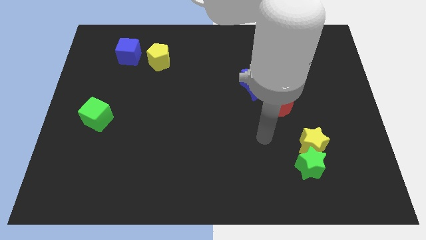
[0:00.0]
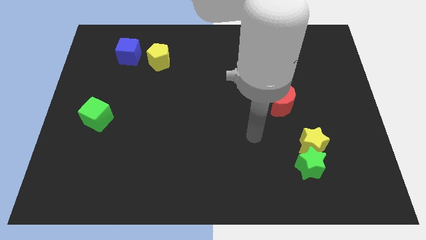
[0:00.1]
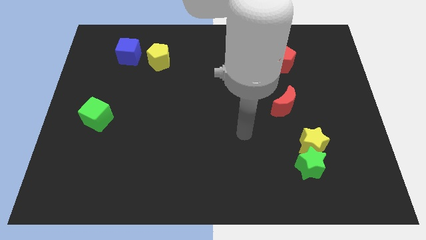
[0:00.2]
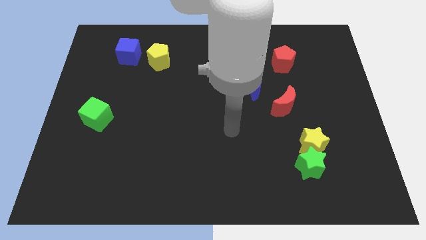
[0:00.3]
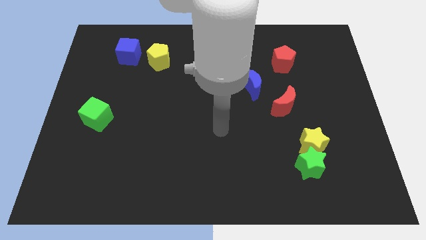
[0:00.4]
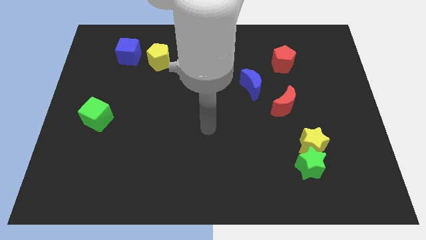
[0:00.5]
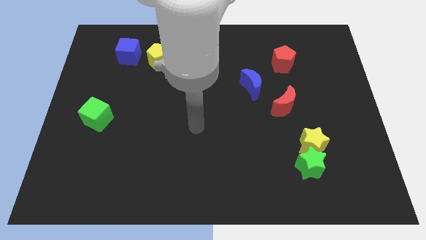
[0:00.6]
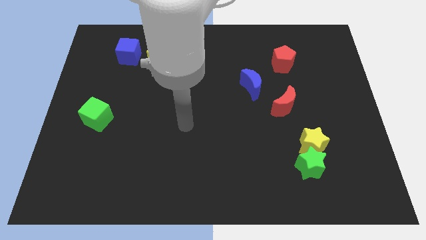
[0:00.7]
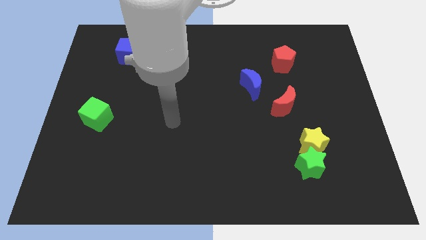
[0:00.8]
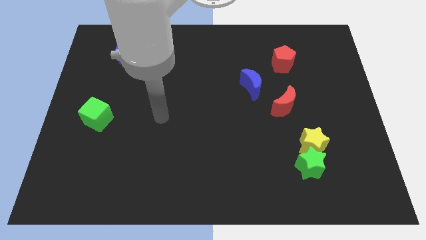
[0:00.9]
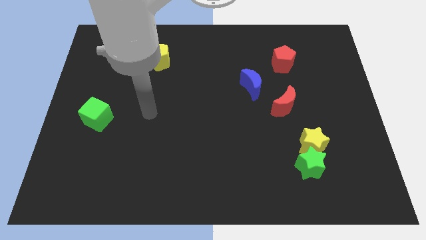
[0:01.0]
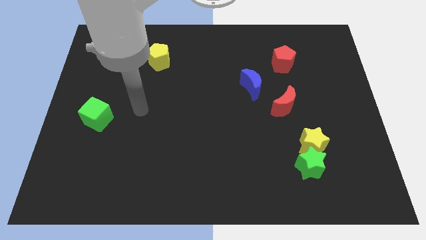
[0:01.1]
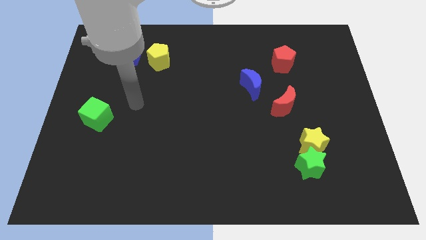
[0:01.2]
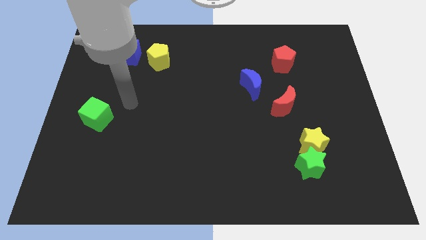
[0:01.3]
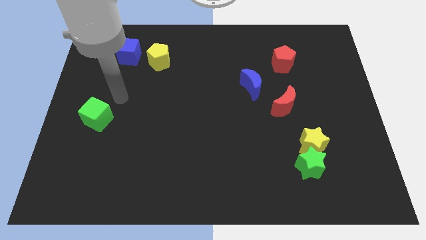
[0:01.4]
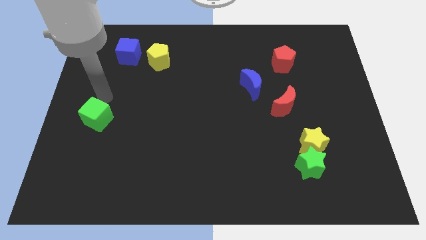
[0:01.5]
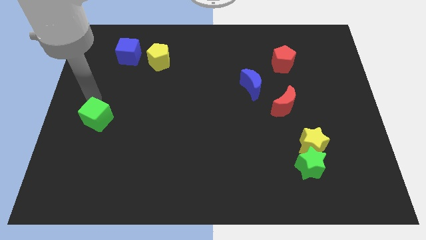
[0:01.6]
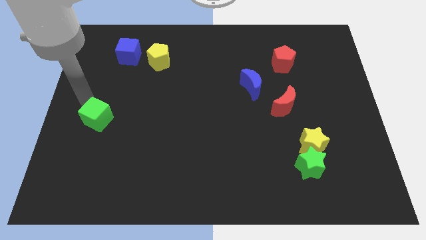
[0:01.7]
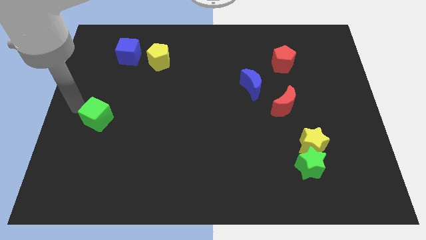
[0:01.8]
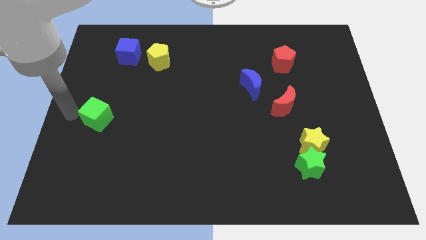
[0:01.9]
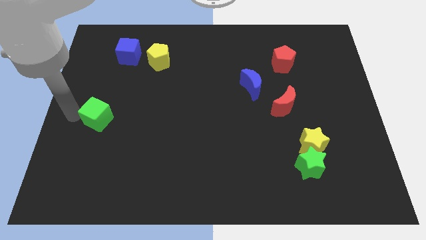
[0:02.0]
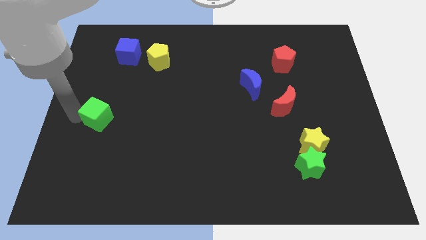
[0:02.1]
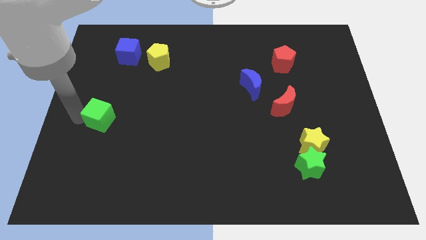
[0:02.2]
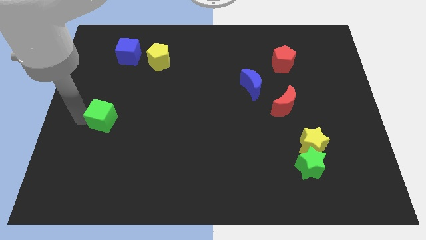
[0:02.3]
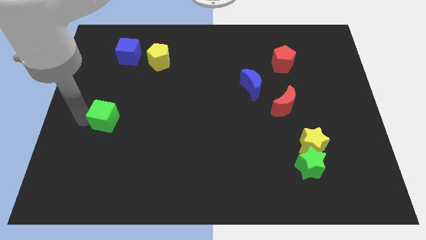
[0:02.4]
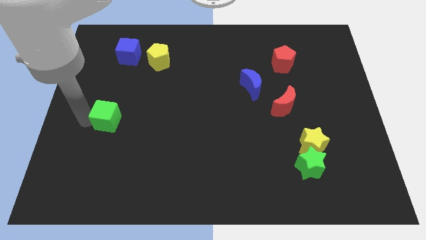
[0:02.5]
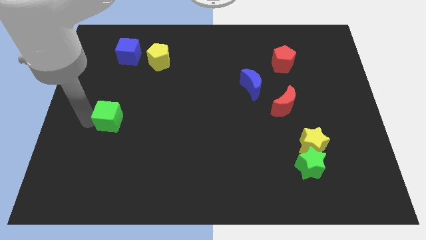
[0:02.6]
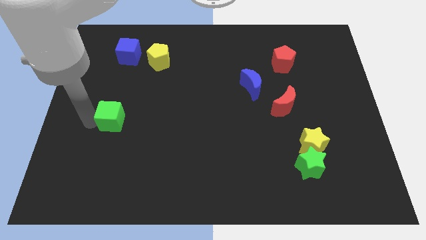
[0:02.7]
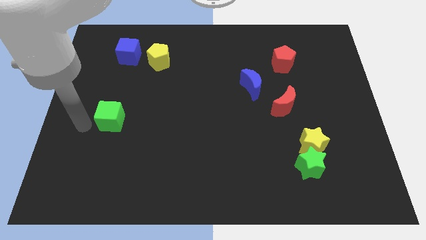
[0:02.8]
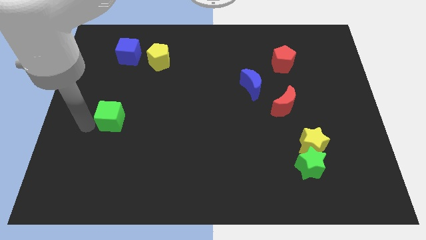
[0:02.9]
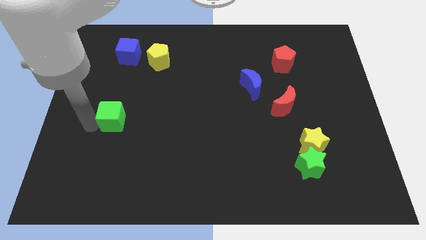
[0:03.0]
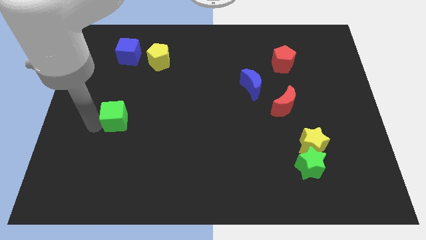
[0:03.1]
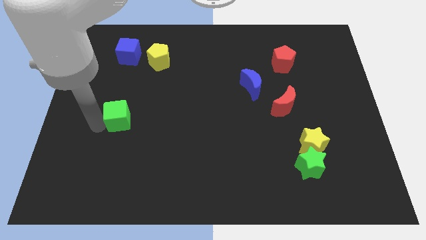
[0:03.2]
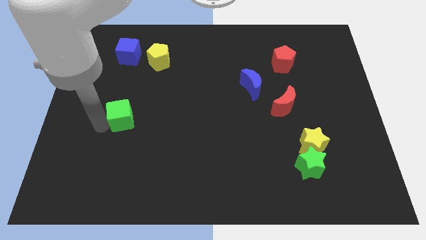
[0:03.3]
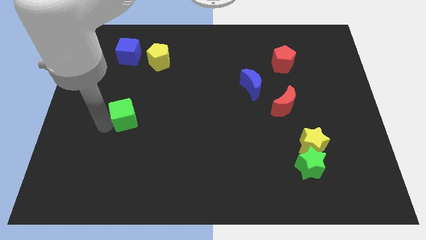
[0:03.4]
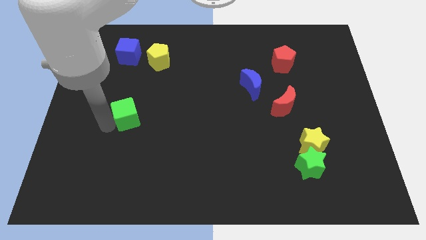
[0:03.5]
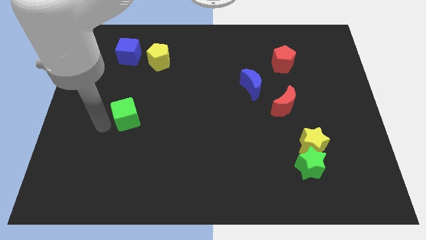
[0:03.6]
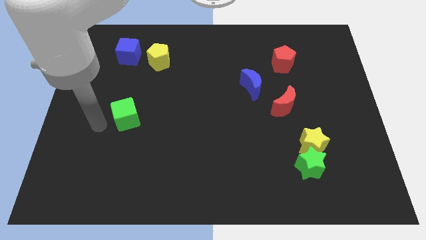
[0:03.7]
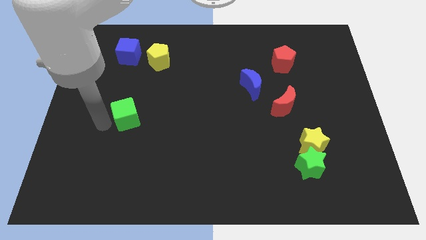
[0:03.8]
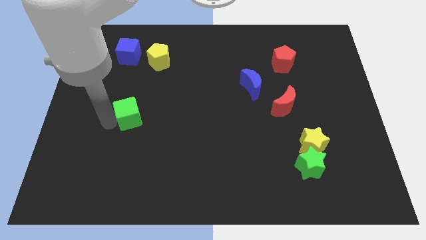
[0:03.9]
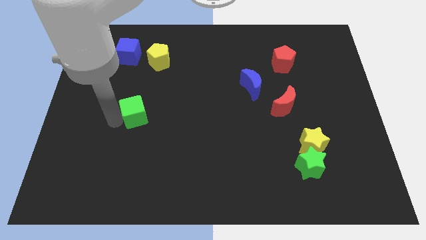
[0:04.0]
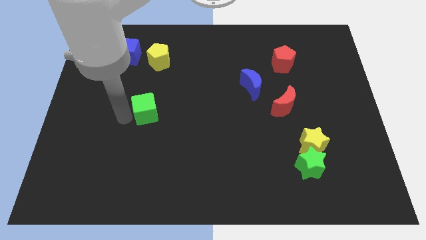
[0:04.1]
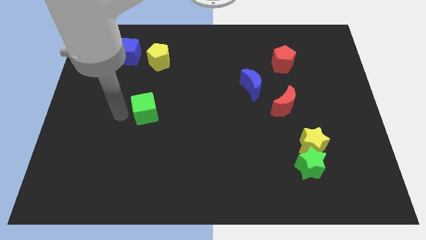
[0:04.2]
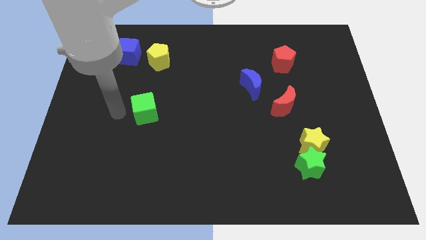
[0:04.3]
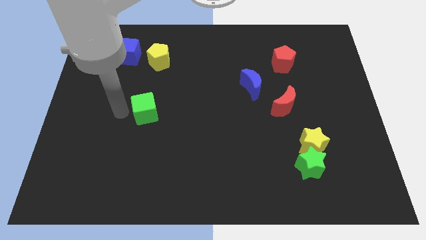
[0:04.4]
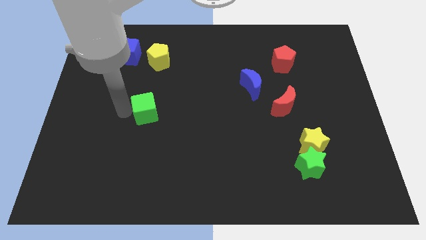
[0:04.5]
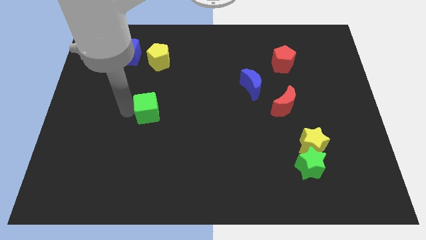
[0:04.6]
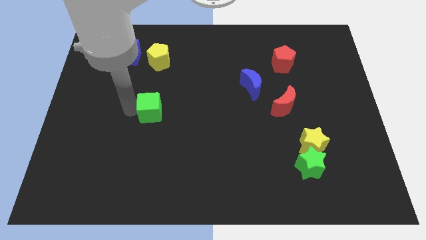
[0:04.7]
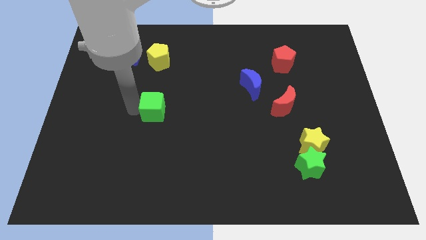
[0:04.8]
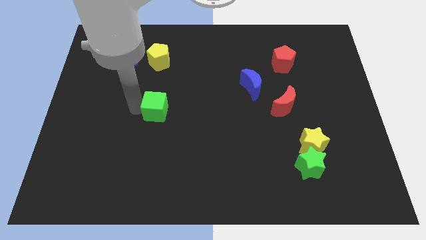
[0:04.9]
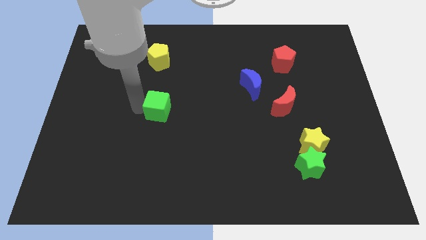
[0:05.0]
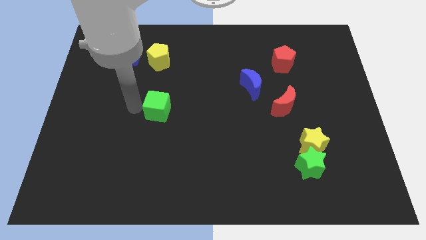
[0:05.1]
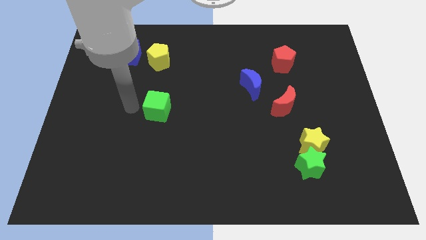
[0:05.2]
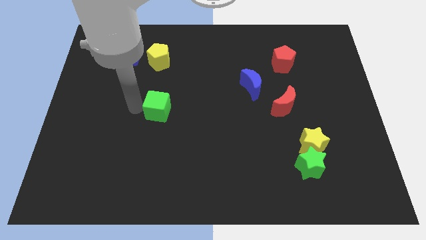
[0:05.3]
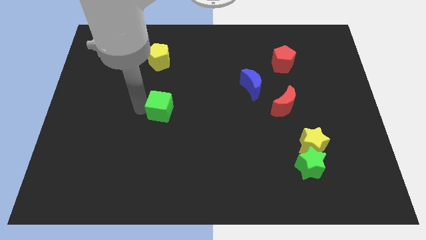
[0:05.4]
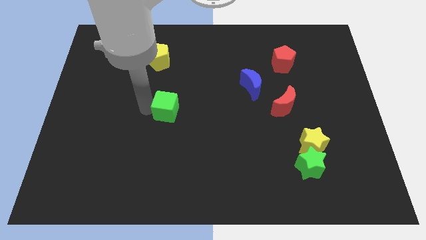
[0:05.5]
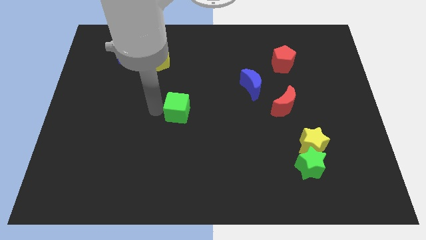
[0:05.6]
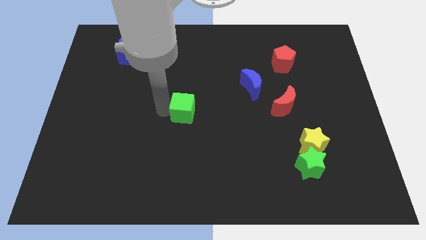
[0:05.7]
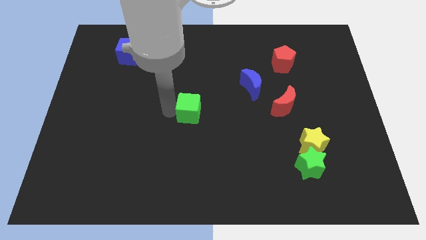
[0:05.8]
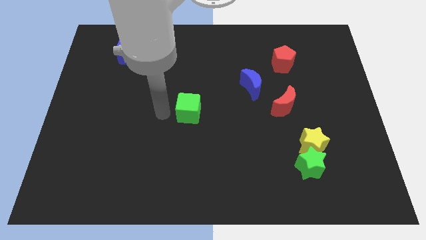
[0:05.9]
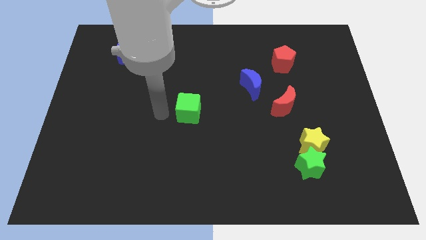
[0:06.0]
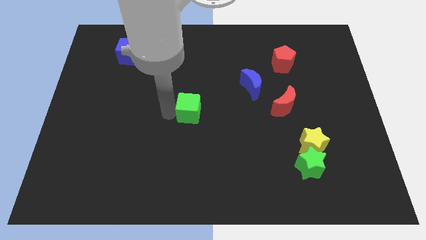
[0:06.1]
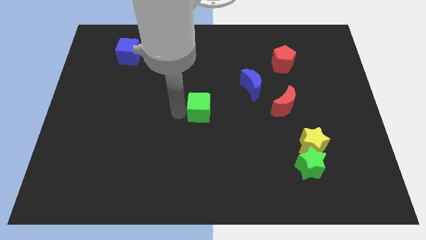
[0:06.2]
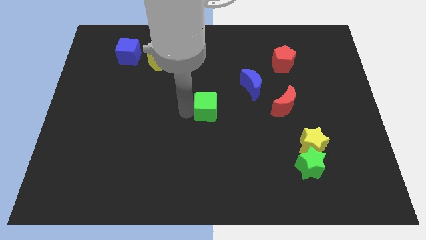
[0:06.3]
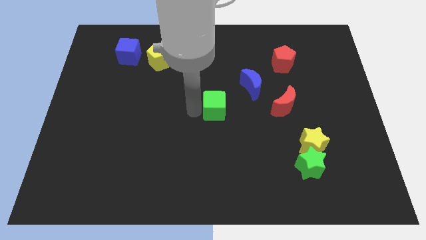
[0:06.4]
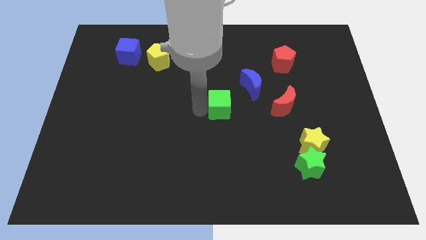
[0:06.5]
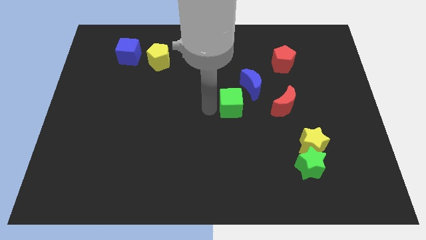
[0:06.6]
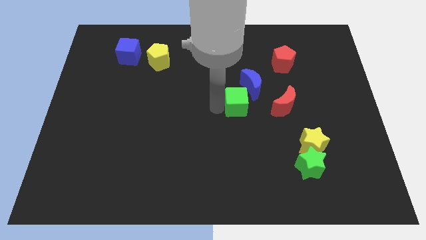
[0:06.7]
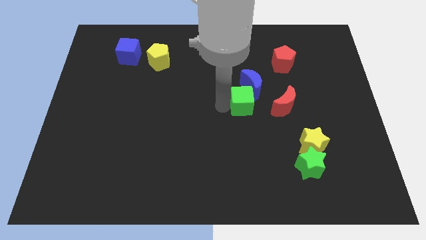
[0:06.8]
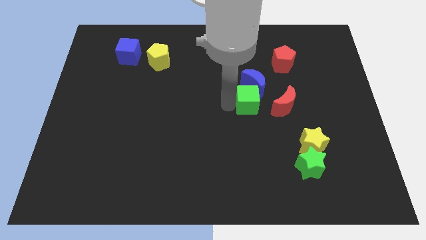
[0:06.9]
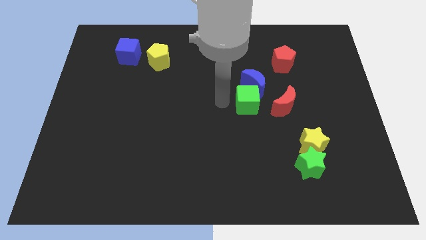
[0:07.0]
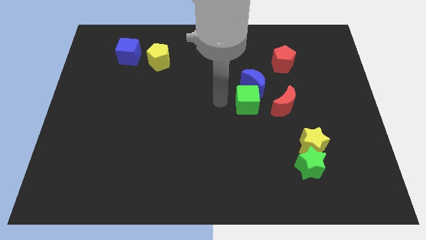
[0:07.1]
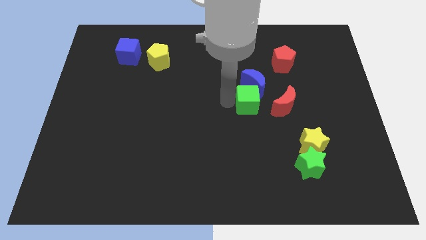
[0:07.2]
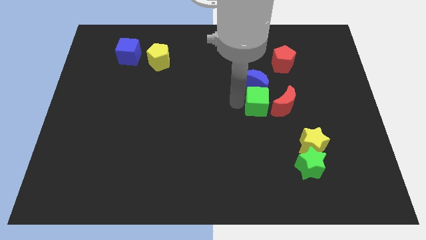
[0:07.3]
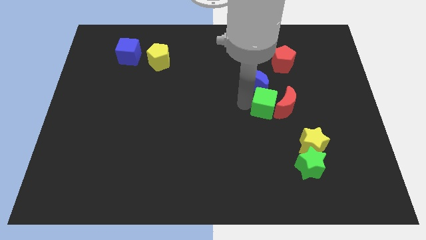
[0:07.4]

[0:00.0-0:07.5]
put the green cube towards the red moon

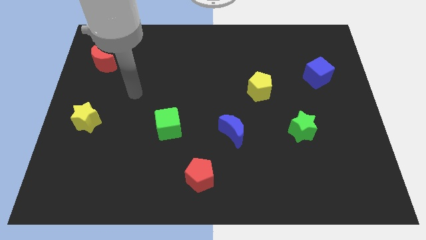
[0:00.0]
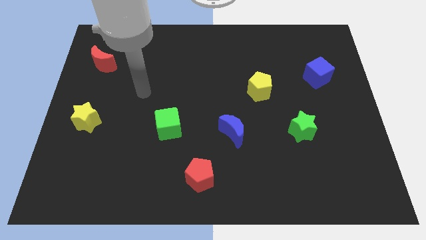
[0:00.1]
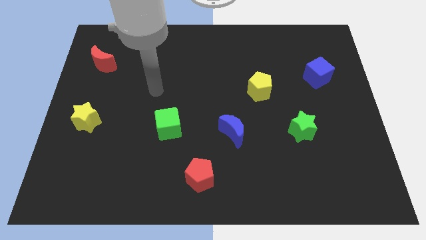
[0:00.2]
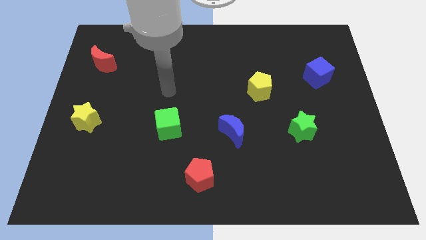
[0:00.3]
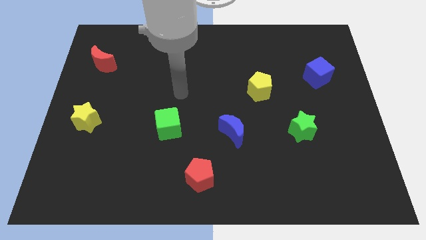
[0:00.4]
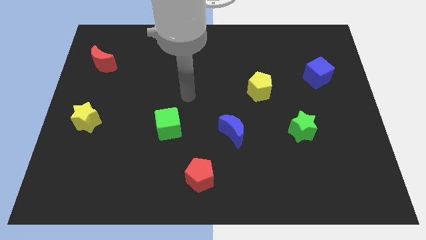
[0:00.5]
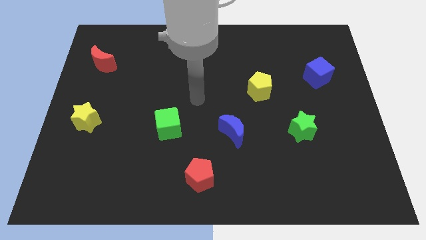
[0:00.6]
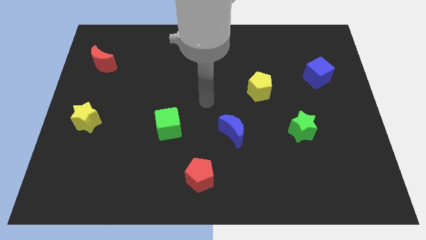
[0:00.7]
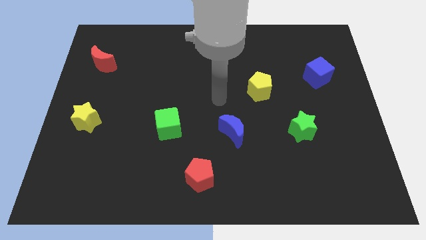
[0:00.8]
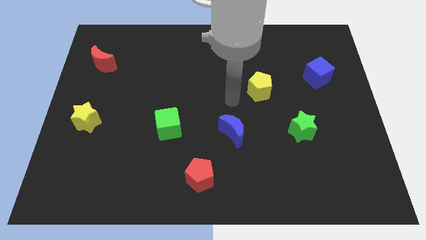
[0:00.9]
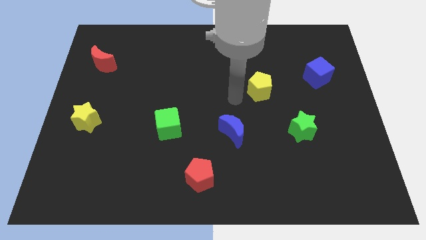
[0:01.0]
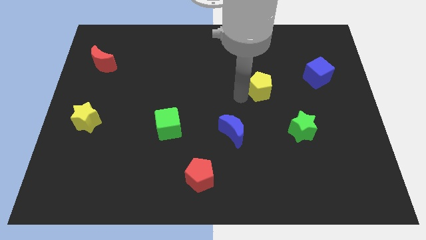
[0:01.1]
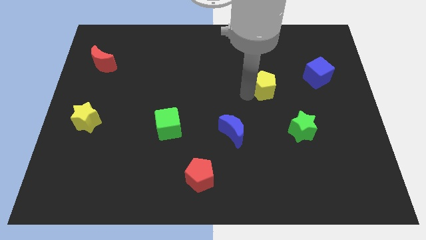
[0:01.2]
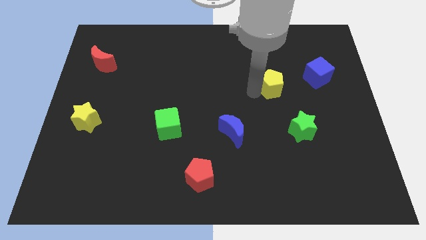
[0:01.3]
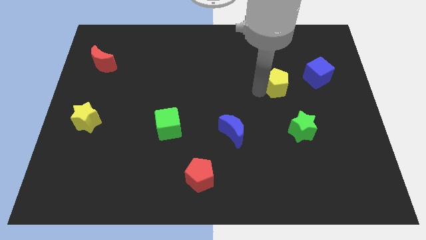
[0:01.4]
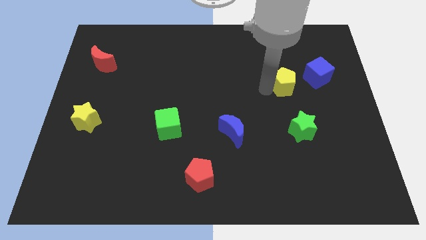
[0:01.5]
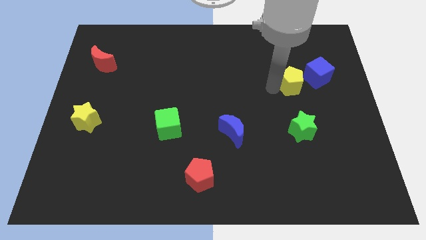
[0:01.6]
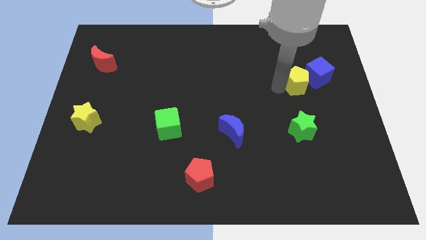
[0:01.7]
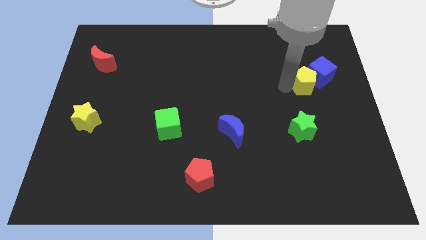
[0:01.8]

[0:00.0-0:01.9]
put the yellow pentagon close to the blue cube
